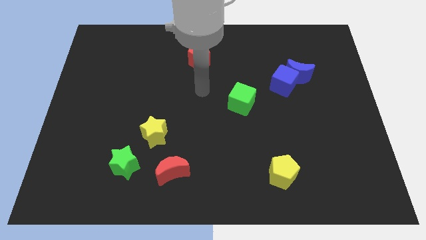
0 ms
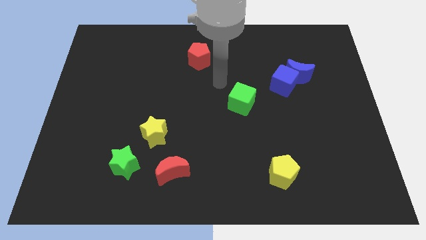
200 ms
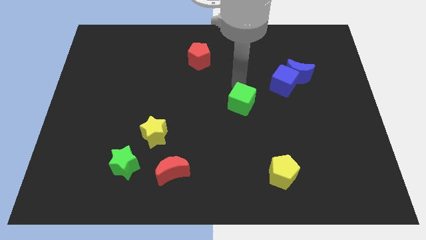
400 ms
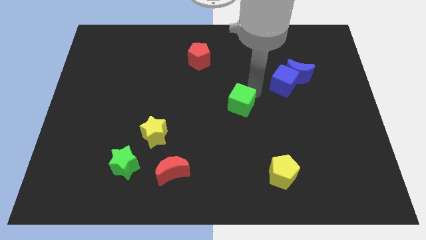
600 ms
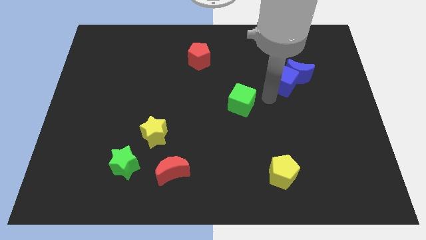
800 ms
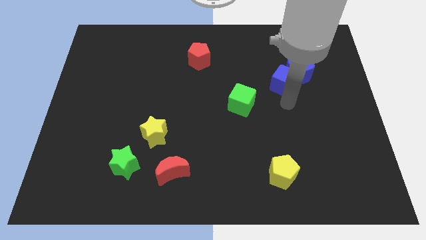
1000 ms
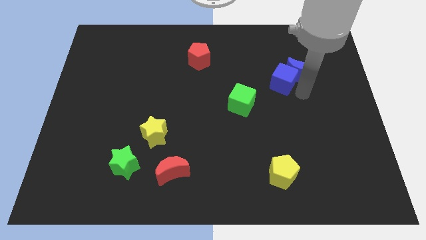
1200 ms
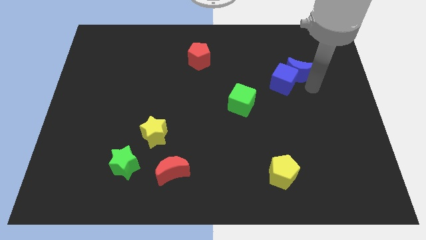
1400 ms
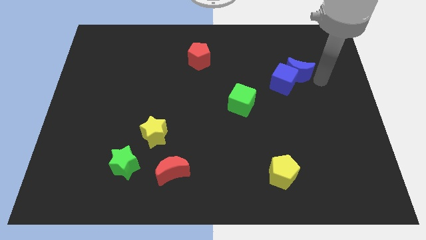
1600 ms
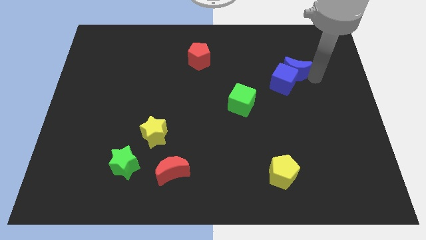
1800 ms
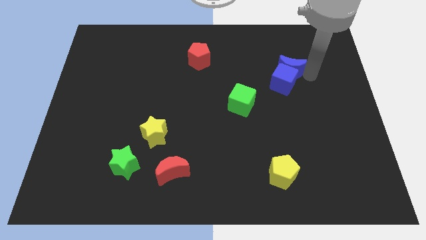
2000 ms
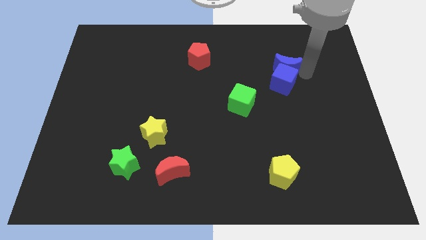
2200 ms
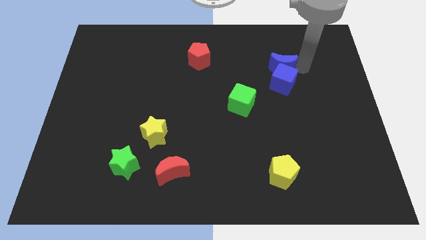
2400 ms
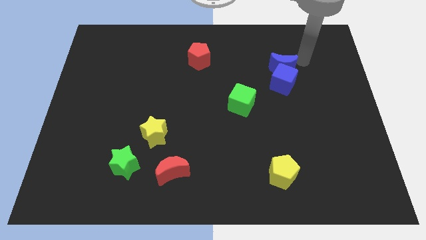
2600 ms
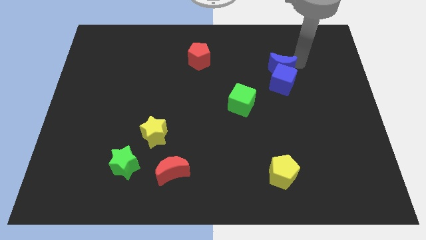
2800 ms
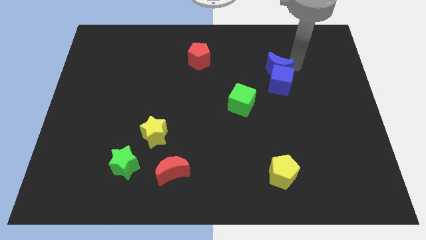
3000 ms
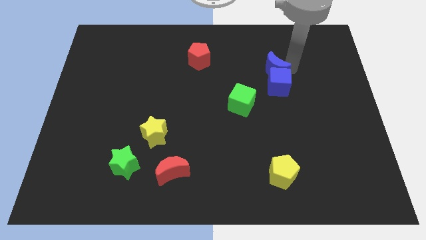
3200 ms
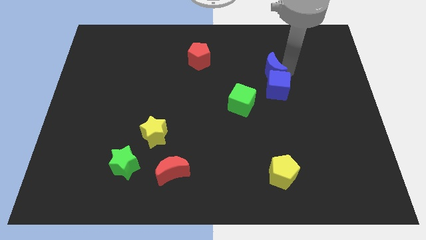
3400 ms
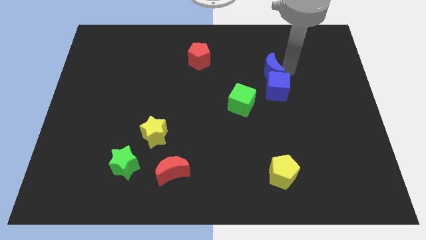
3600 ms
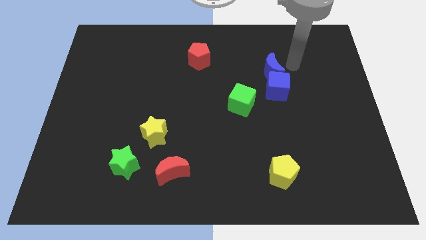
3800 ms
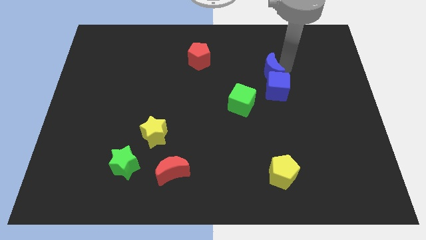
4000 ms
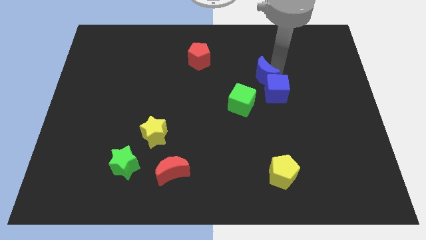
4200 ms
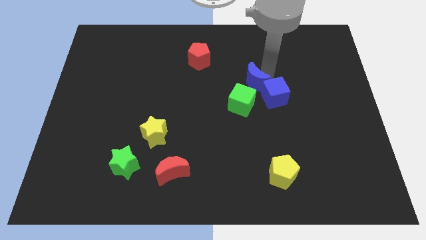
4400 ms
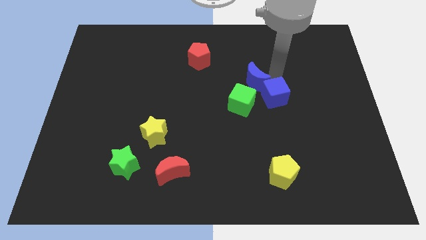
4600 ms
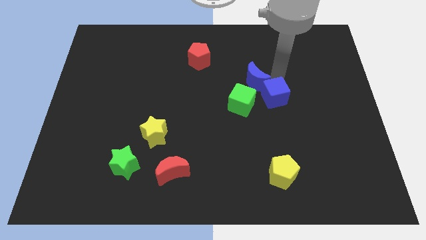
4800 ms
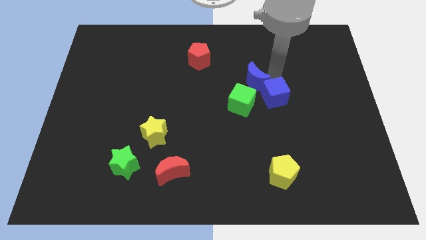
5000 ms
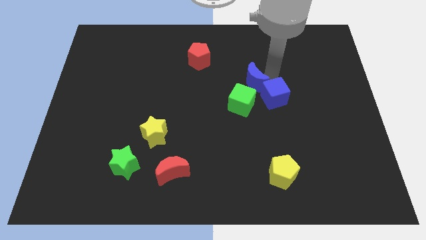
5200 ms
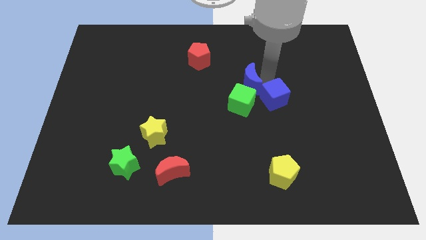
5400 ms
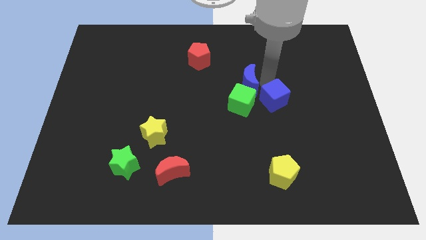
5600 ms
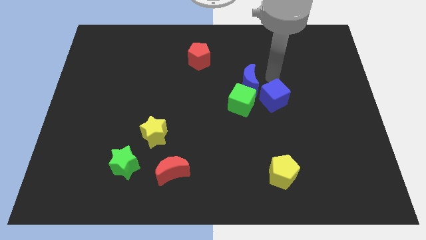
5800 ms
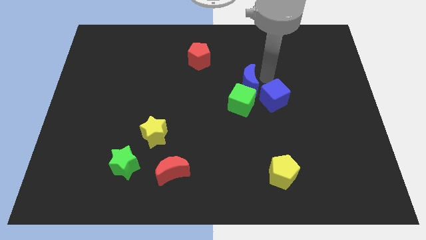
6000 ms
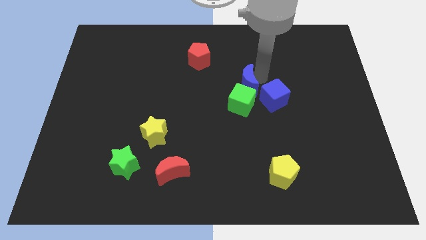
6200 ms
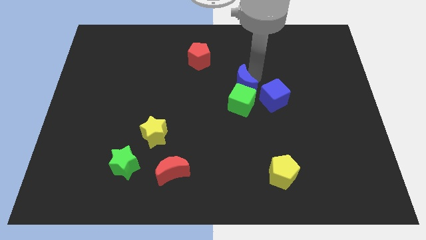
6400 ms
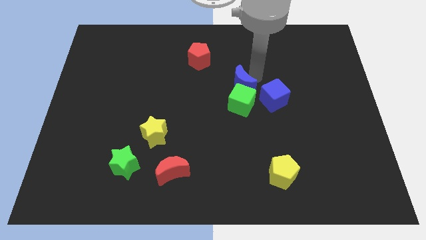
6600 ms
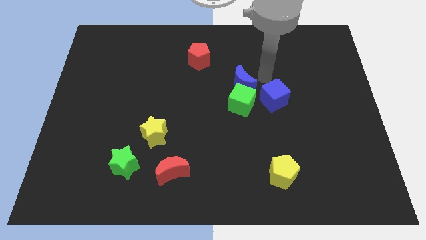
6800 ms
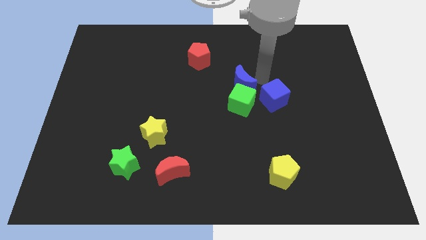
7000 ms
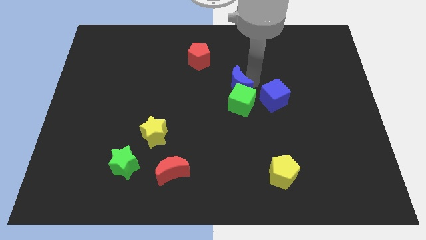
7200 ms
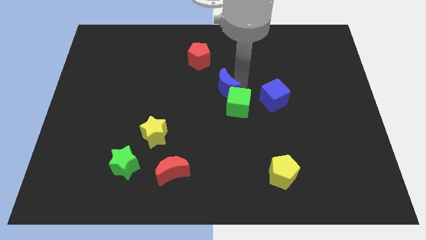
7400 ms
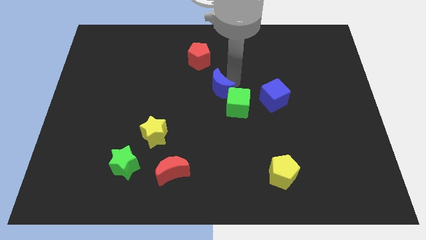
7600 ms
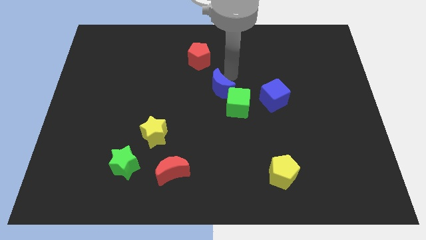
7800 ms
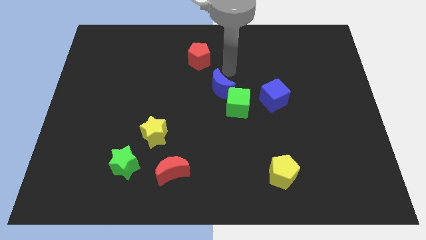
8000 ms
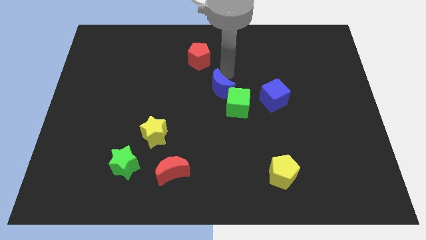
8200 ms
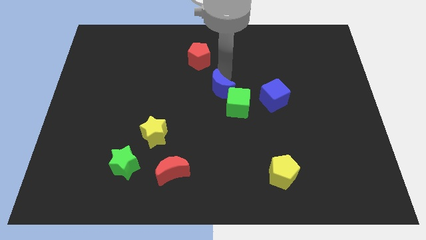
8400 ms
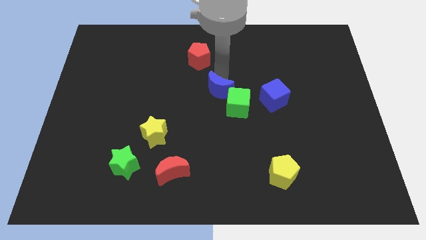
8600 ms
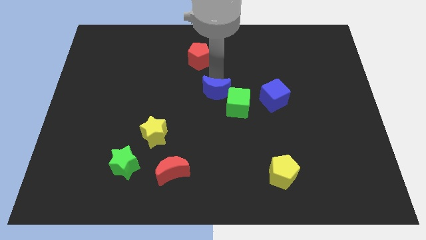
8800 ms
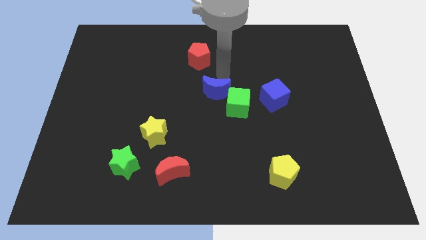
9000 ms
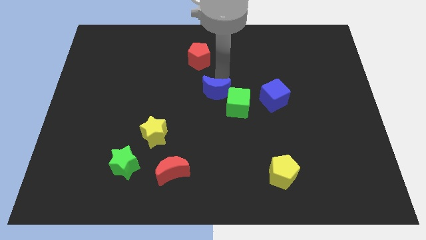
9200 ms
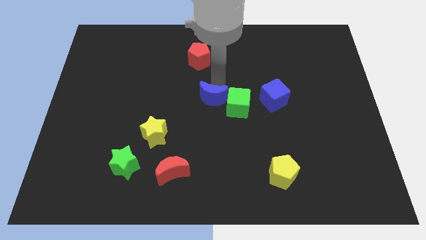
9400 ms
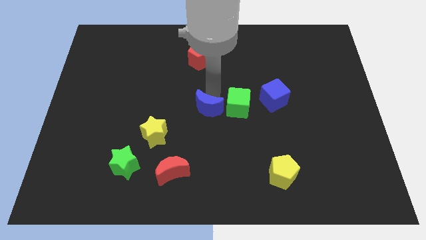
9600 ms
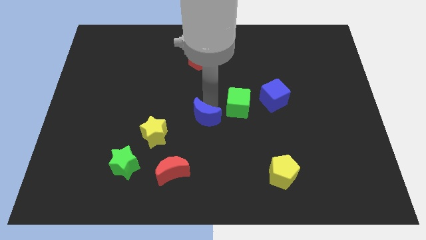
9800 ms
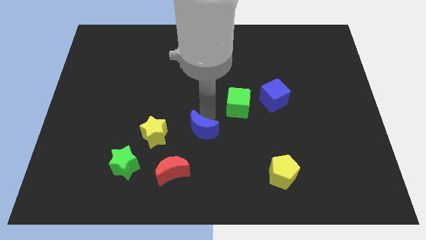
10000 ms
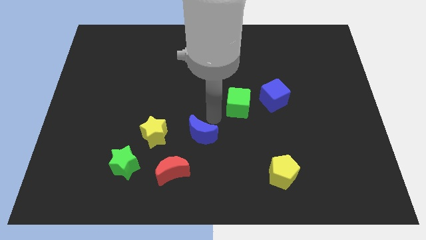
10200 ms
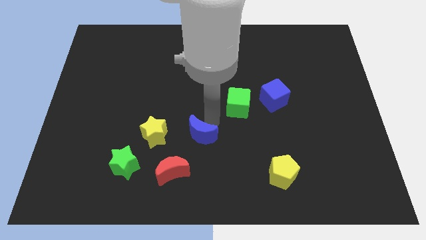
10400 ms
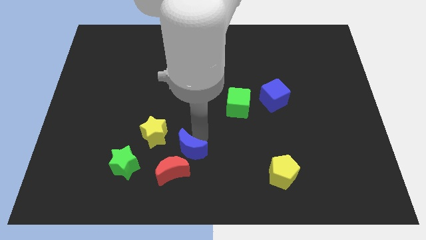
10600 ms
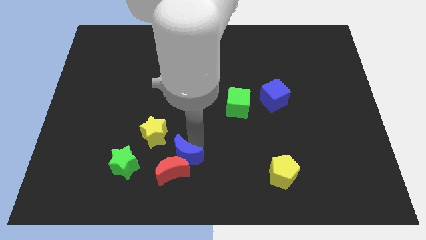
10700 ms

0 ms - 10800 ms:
put the blue moon towards the red moon
